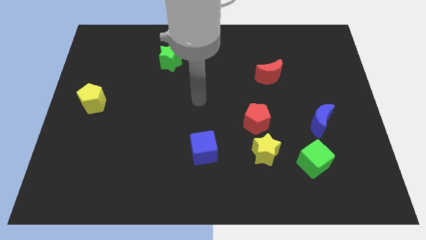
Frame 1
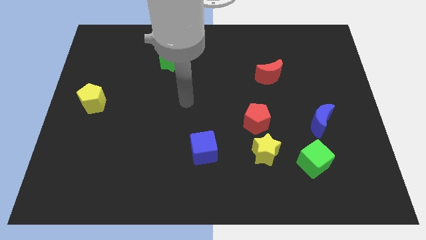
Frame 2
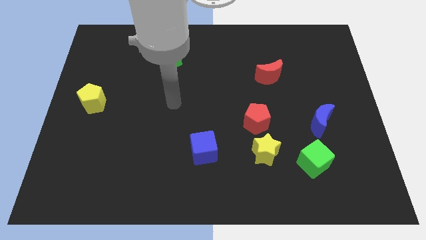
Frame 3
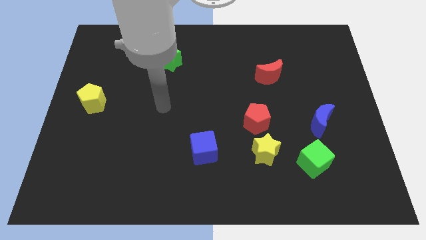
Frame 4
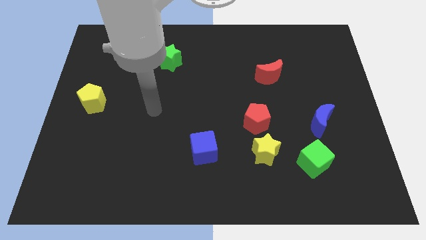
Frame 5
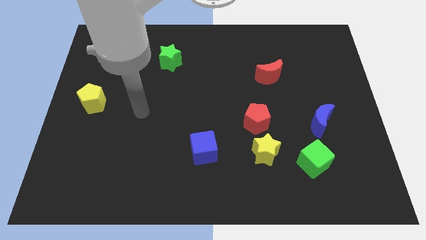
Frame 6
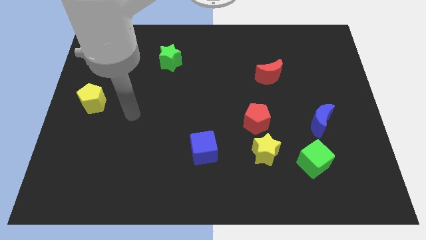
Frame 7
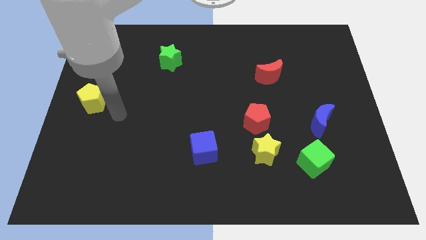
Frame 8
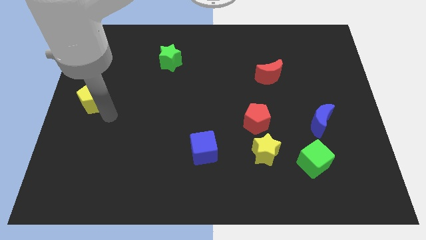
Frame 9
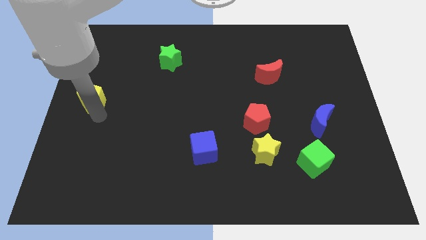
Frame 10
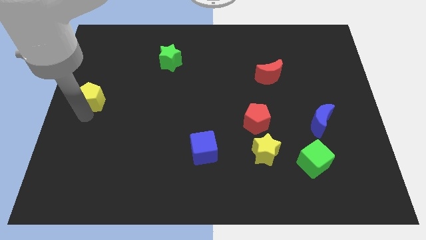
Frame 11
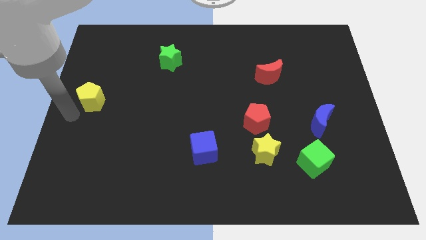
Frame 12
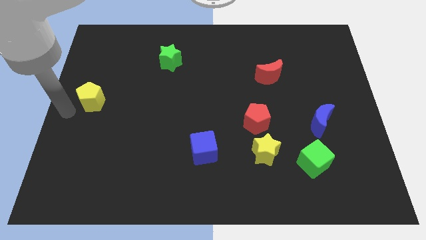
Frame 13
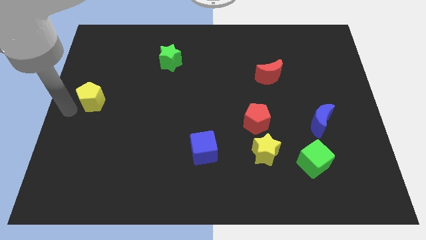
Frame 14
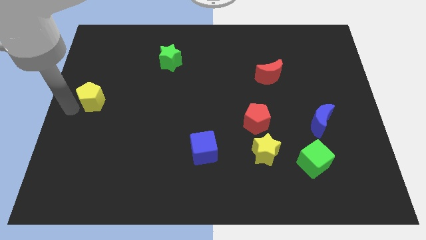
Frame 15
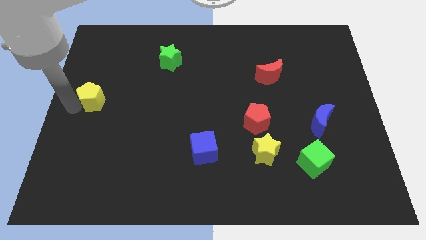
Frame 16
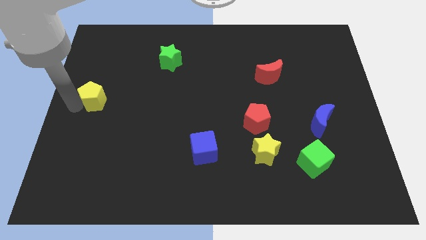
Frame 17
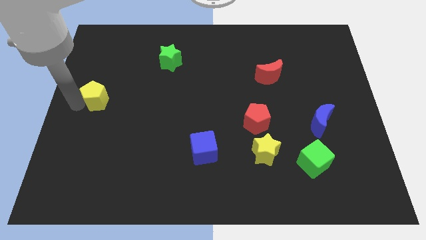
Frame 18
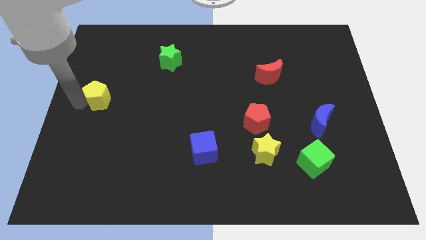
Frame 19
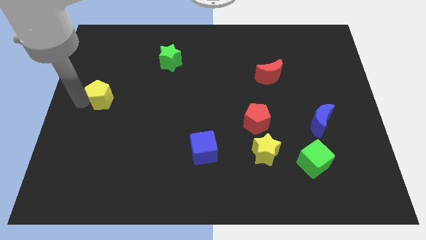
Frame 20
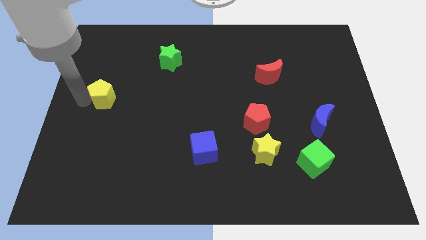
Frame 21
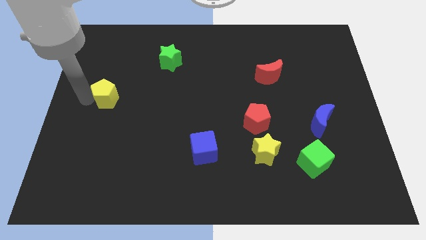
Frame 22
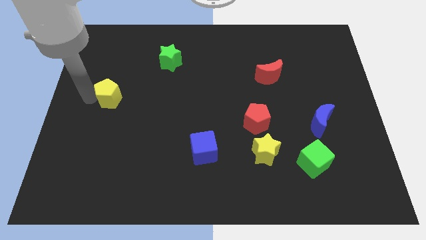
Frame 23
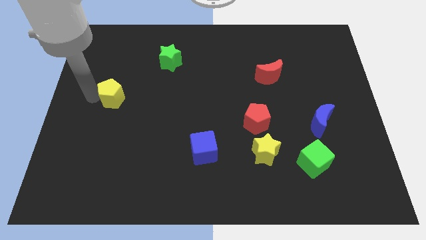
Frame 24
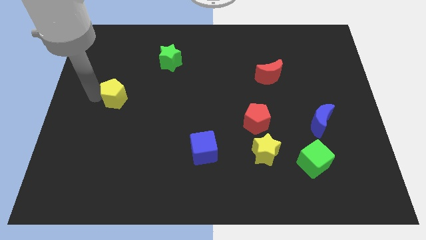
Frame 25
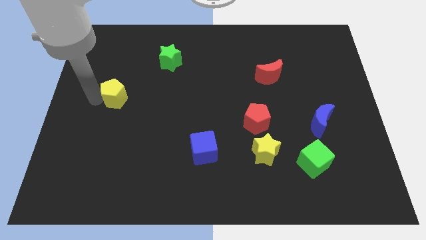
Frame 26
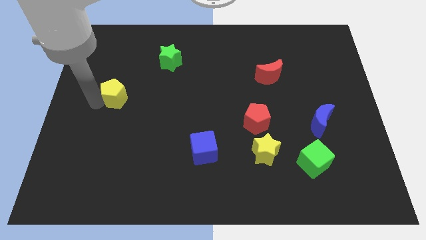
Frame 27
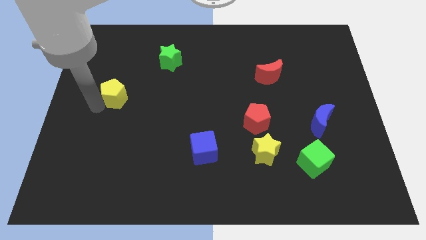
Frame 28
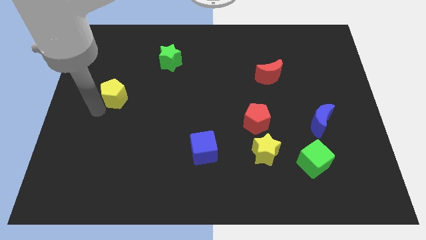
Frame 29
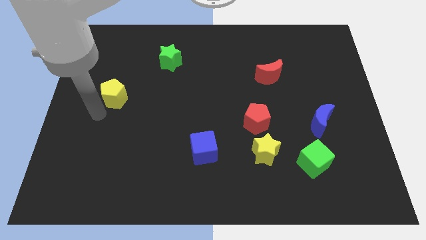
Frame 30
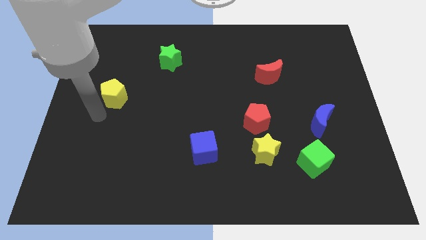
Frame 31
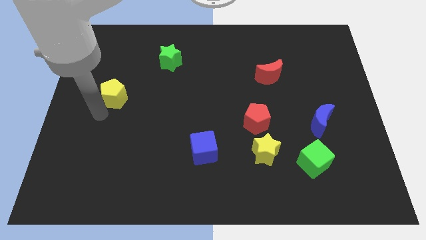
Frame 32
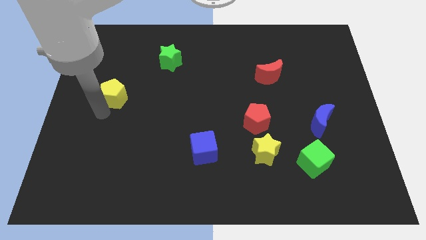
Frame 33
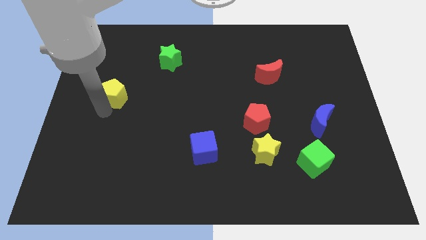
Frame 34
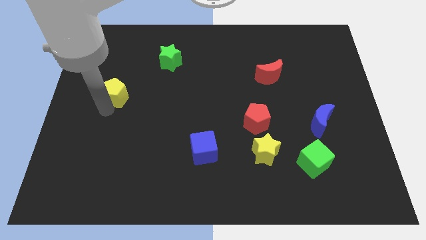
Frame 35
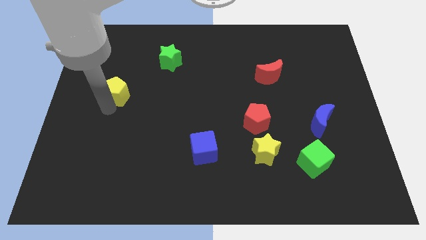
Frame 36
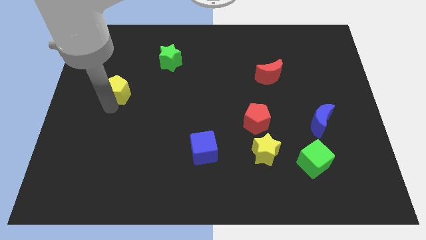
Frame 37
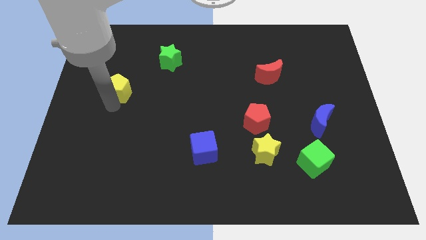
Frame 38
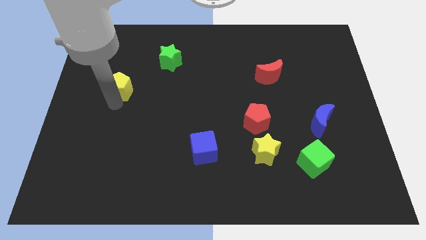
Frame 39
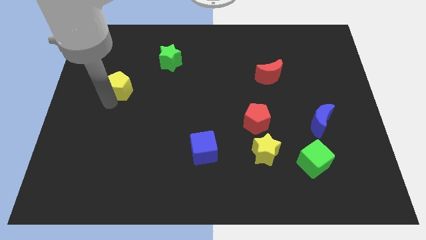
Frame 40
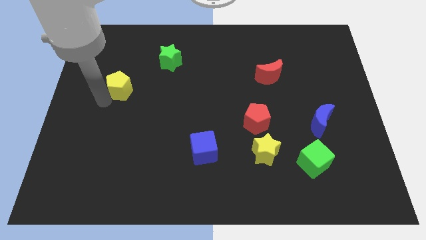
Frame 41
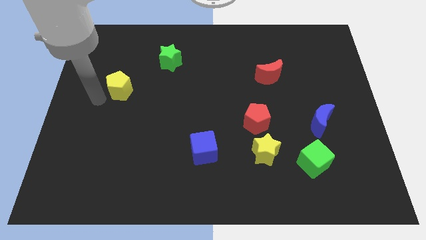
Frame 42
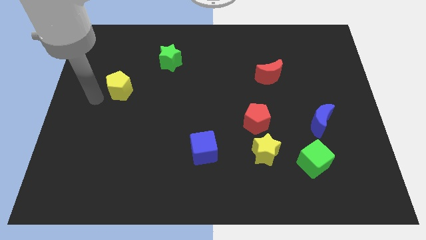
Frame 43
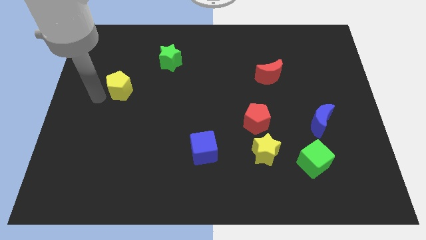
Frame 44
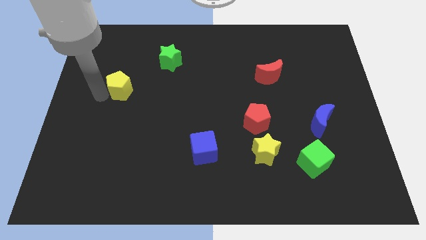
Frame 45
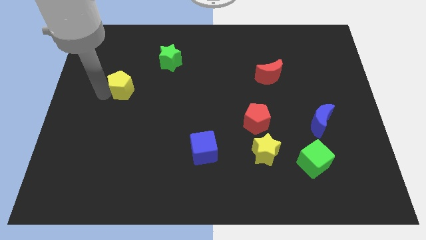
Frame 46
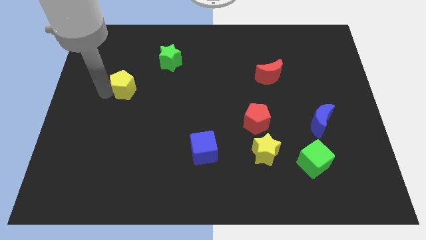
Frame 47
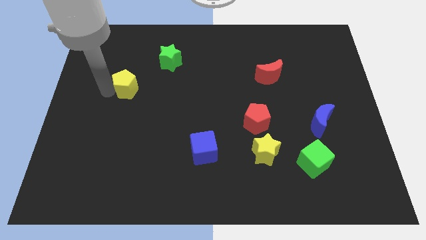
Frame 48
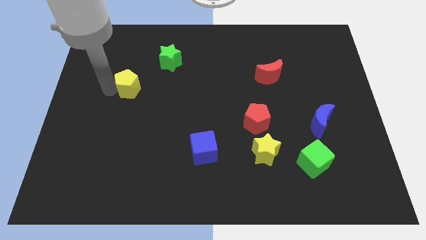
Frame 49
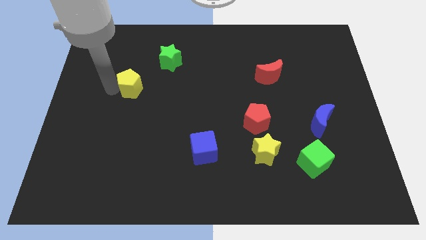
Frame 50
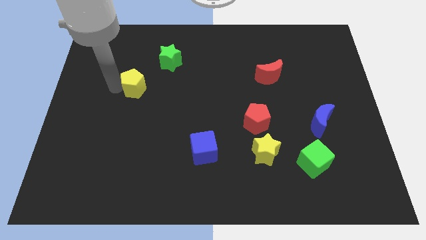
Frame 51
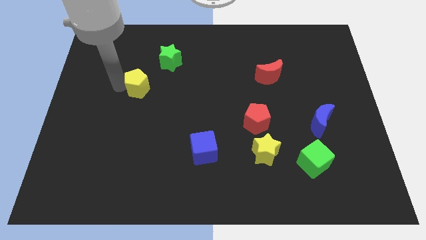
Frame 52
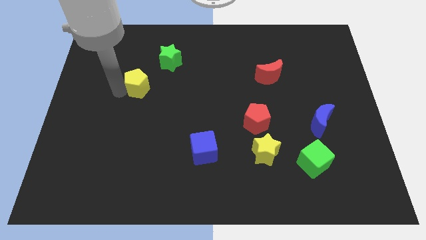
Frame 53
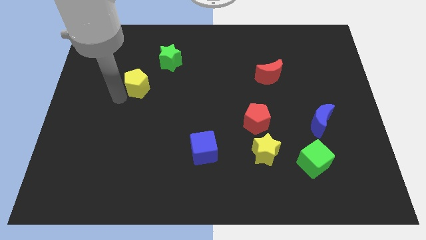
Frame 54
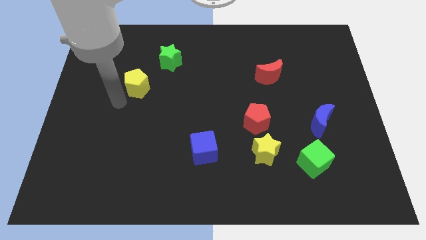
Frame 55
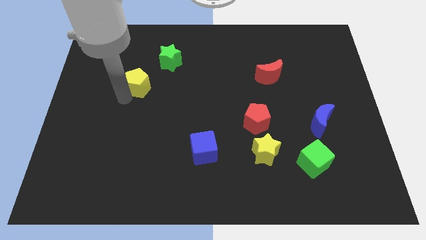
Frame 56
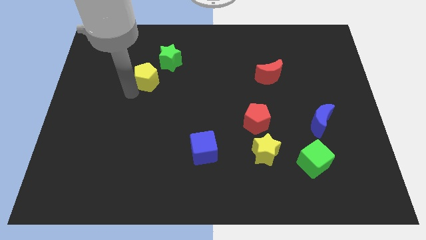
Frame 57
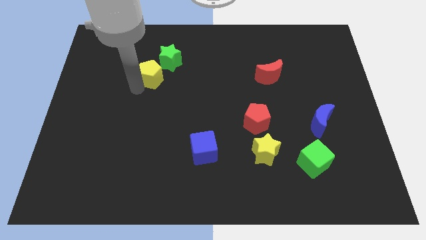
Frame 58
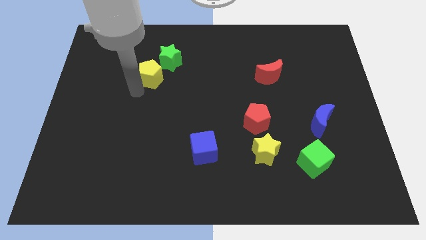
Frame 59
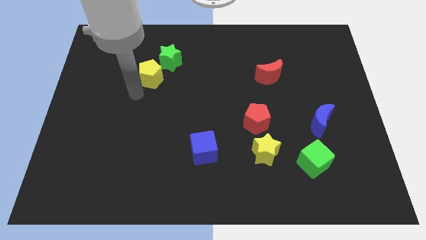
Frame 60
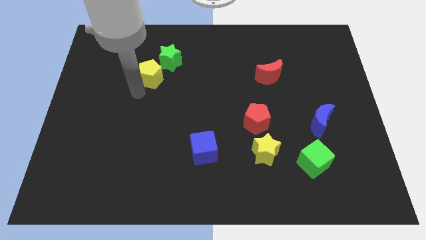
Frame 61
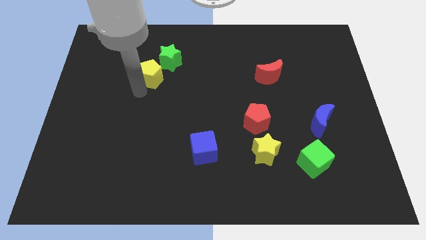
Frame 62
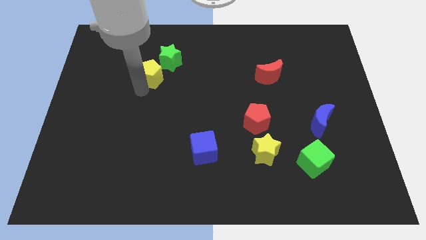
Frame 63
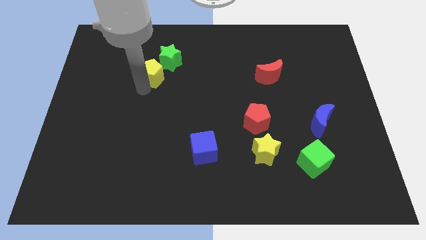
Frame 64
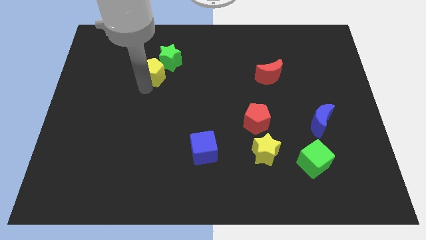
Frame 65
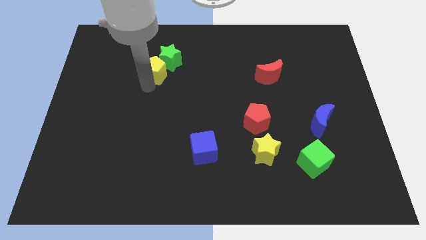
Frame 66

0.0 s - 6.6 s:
push the yellow pentagon towards the green star

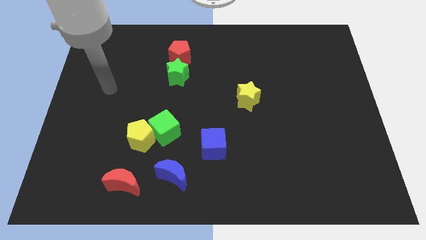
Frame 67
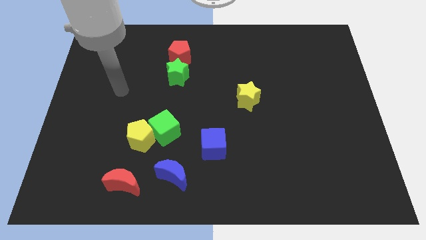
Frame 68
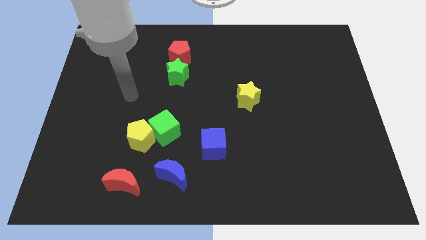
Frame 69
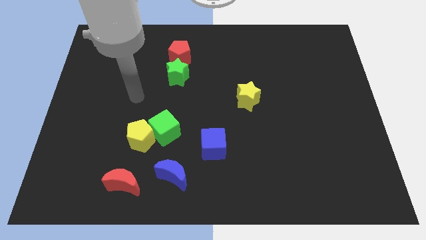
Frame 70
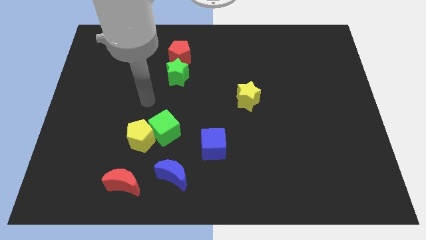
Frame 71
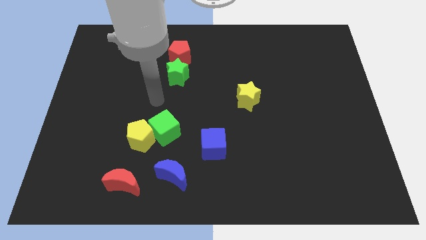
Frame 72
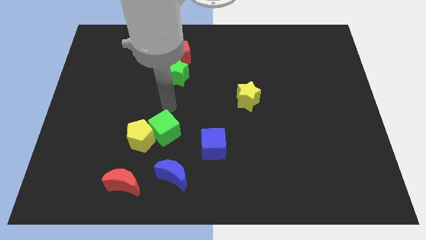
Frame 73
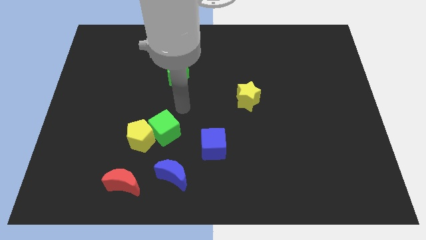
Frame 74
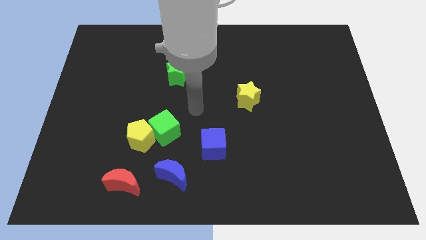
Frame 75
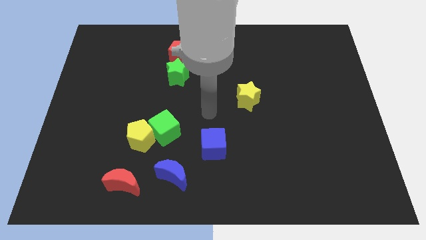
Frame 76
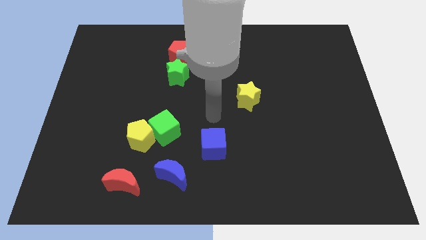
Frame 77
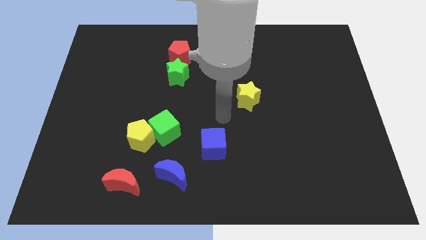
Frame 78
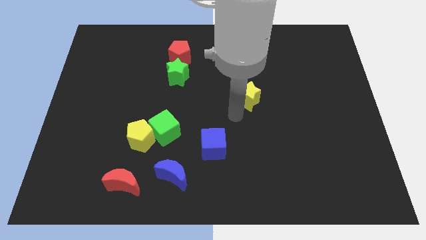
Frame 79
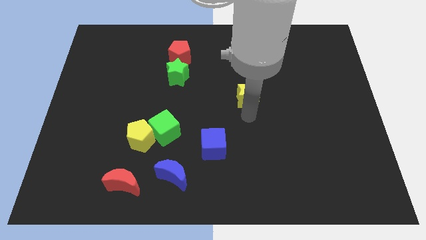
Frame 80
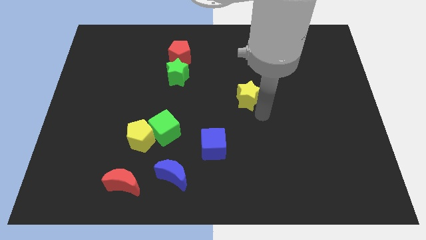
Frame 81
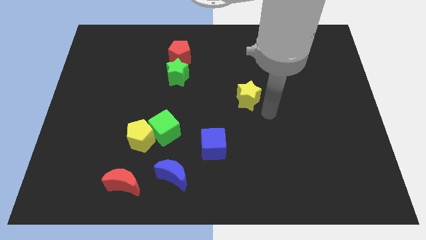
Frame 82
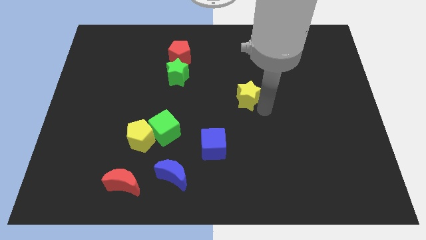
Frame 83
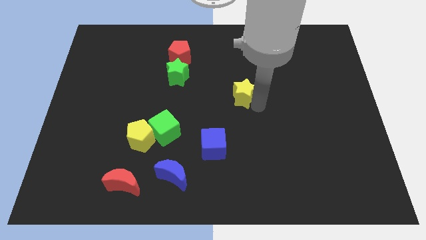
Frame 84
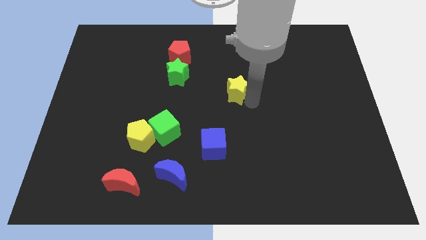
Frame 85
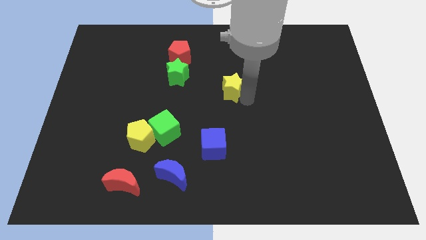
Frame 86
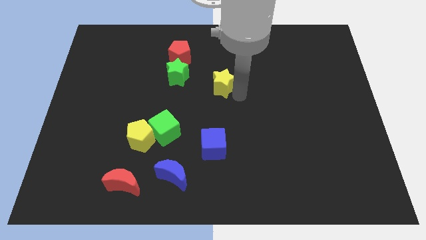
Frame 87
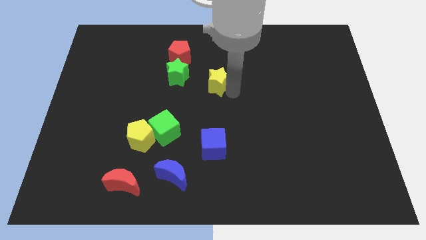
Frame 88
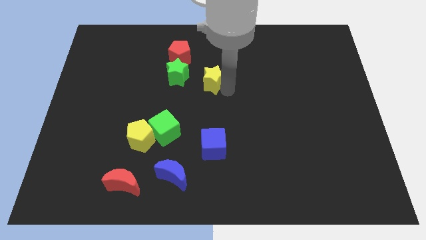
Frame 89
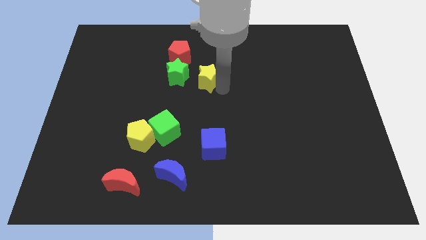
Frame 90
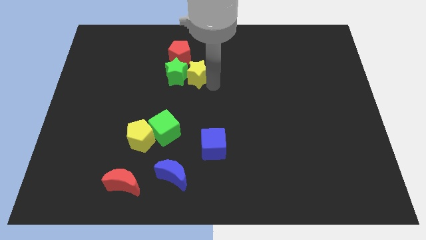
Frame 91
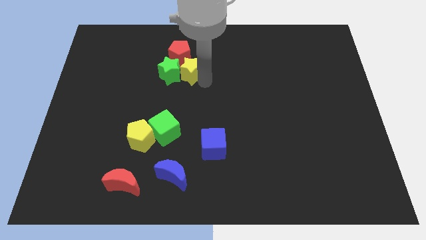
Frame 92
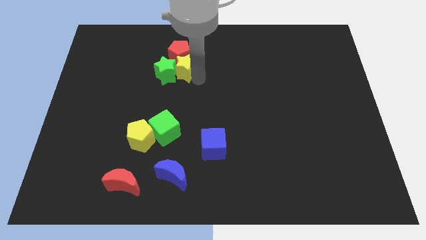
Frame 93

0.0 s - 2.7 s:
push the yellow star to the red pentagon
